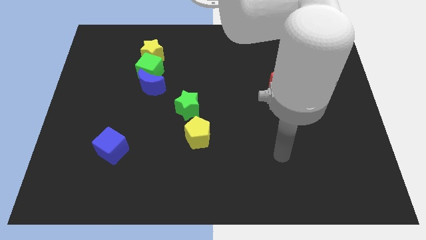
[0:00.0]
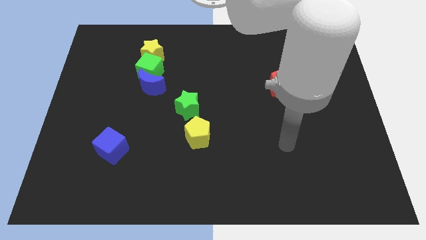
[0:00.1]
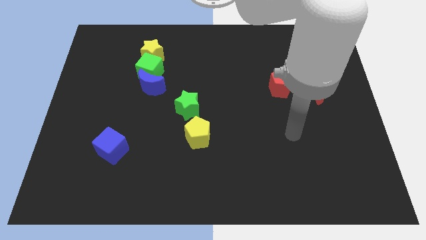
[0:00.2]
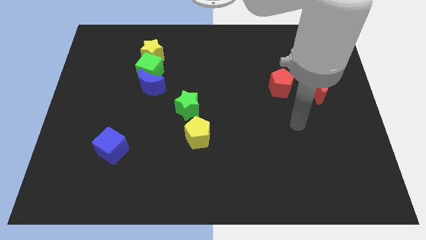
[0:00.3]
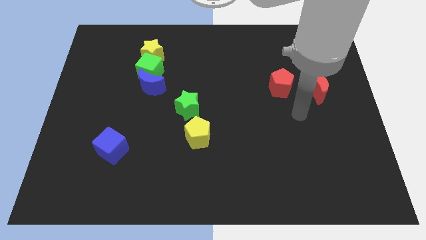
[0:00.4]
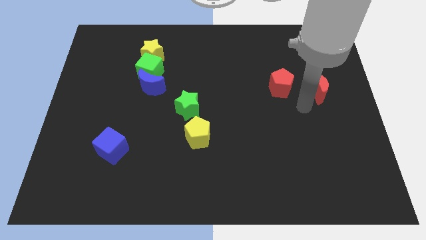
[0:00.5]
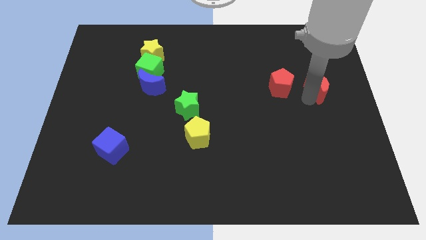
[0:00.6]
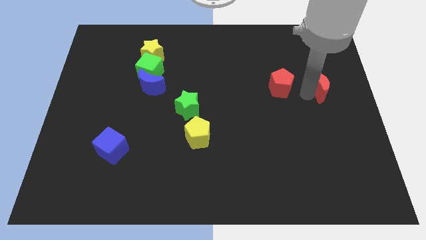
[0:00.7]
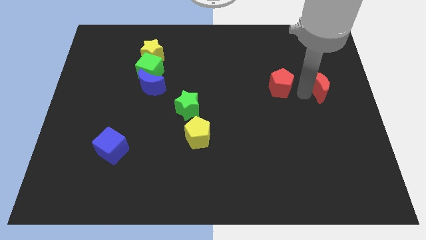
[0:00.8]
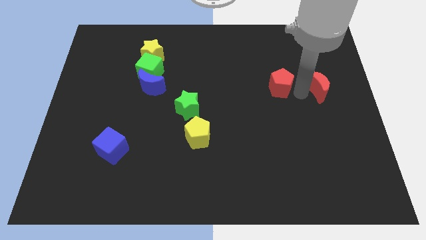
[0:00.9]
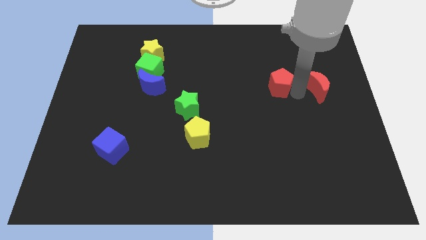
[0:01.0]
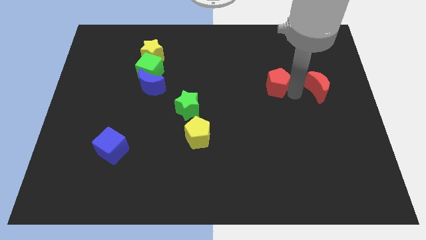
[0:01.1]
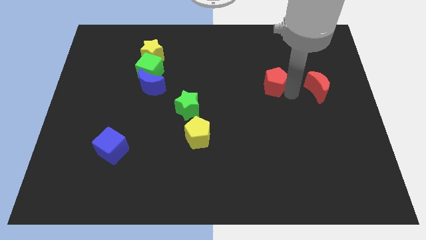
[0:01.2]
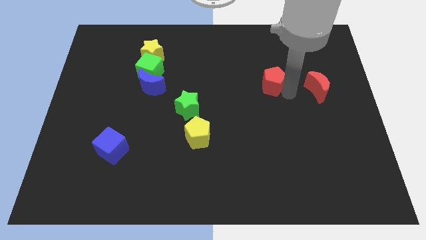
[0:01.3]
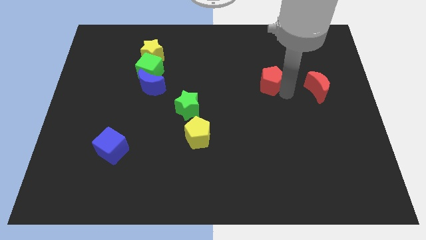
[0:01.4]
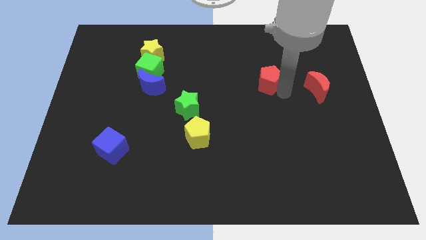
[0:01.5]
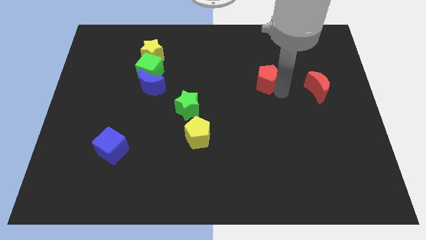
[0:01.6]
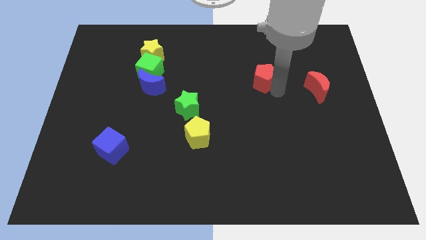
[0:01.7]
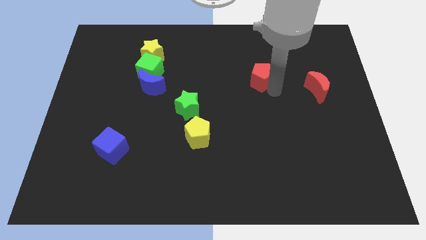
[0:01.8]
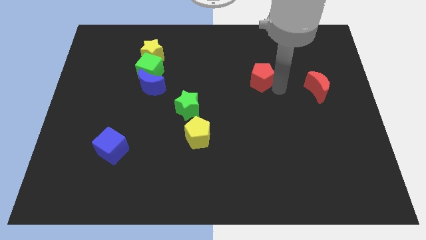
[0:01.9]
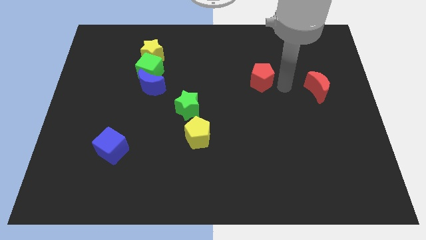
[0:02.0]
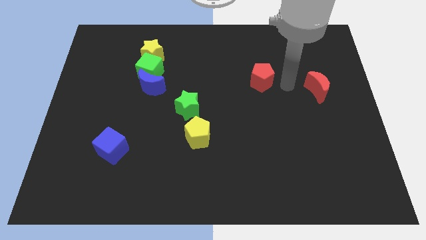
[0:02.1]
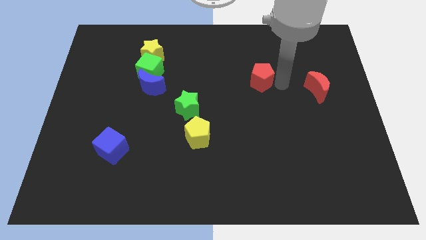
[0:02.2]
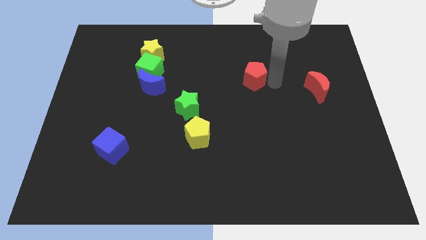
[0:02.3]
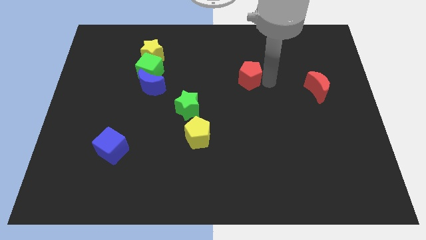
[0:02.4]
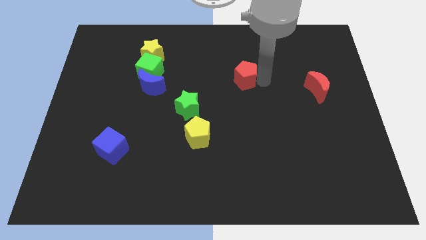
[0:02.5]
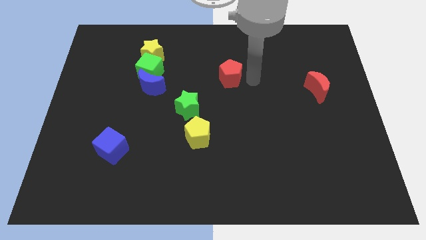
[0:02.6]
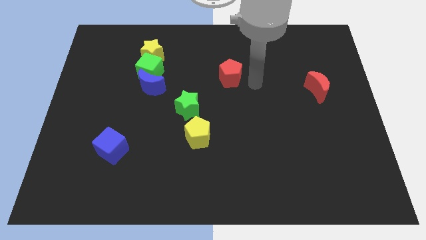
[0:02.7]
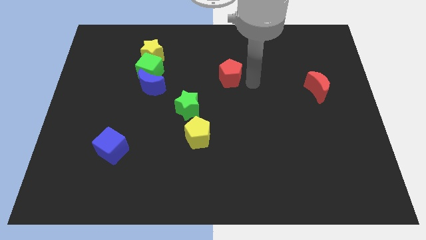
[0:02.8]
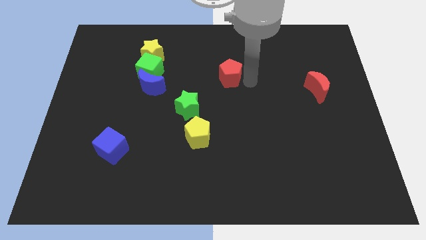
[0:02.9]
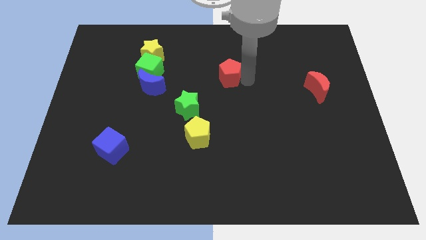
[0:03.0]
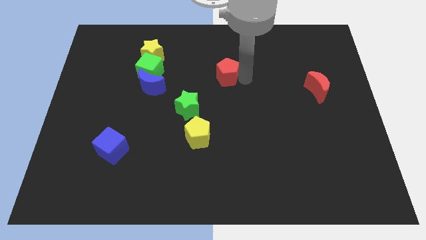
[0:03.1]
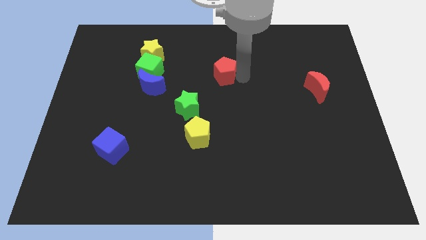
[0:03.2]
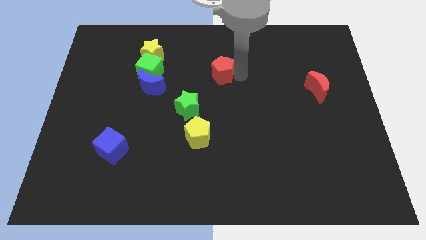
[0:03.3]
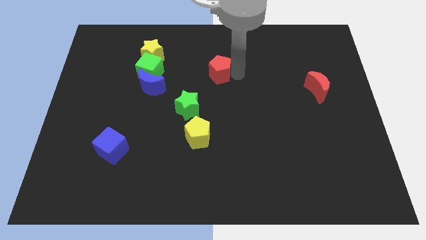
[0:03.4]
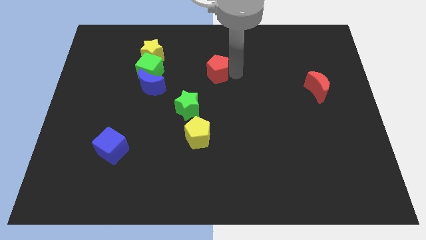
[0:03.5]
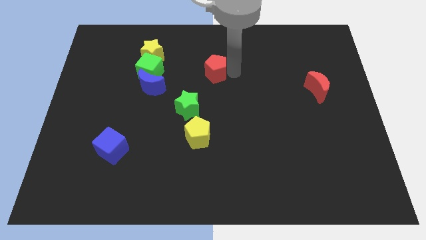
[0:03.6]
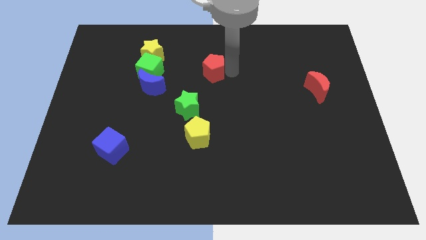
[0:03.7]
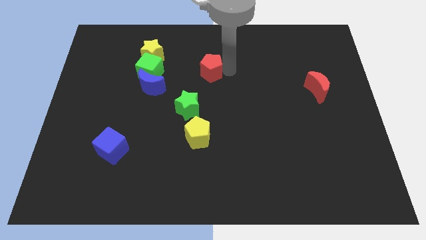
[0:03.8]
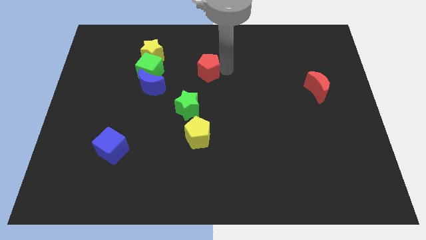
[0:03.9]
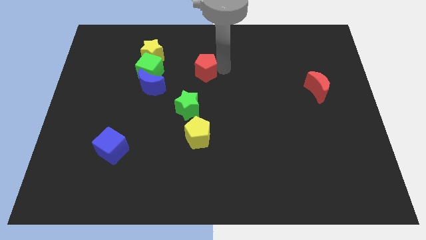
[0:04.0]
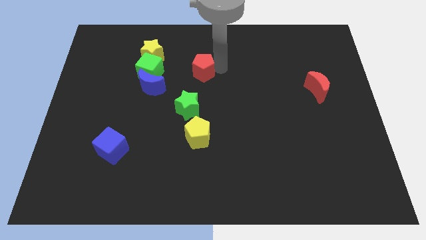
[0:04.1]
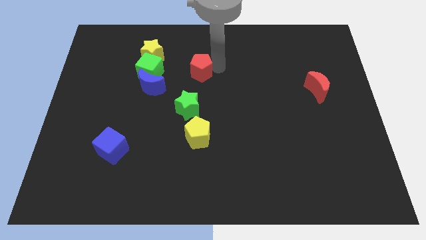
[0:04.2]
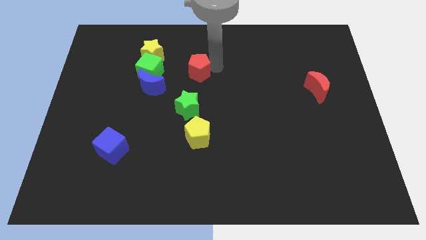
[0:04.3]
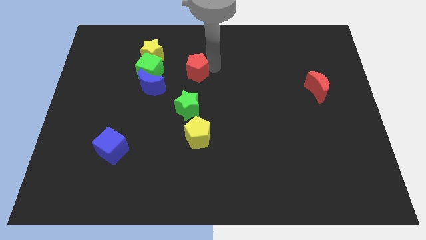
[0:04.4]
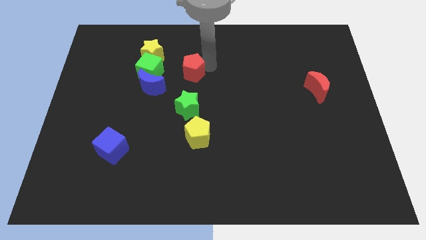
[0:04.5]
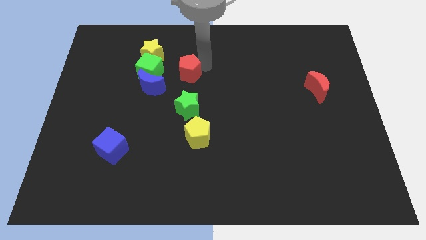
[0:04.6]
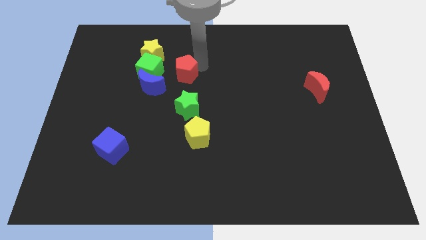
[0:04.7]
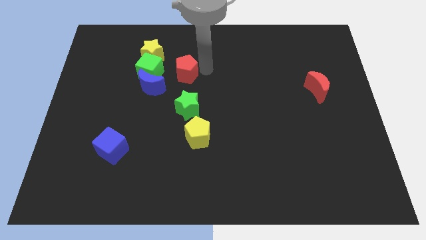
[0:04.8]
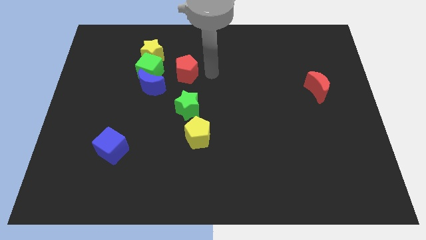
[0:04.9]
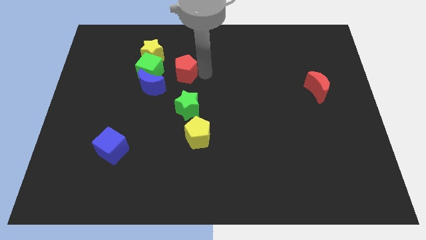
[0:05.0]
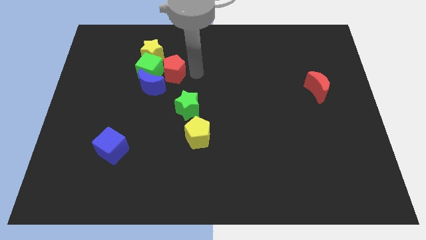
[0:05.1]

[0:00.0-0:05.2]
push the red pentagon towards the green cube

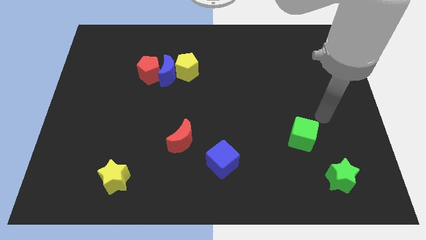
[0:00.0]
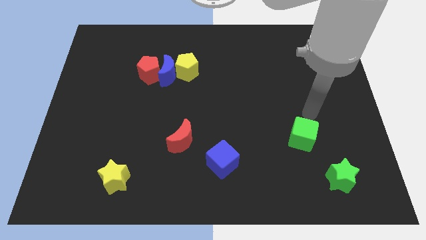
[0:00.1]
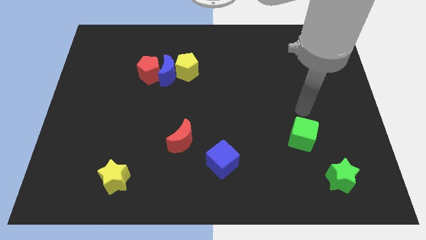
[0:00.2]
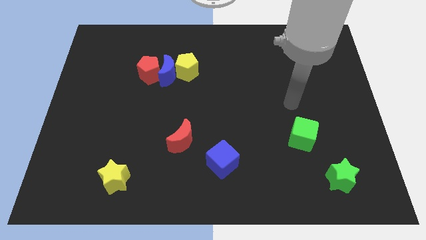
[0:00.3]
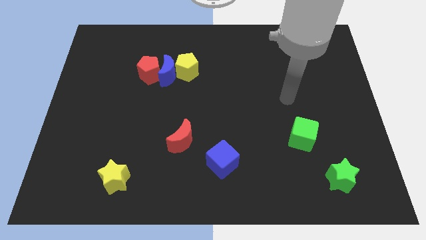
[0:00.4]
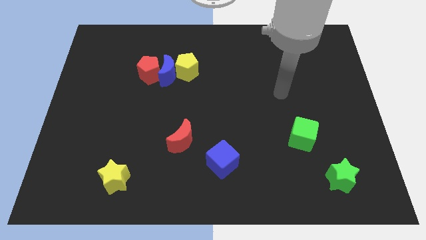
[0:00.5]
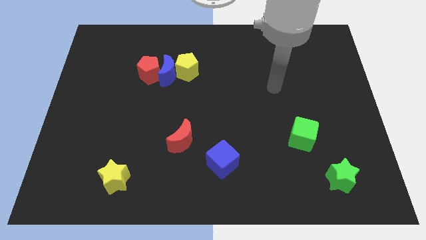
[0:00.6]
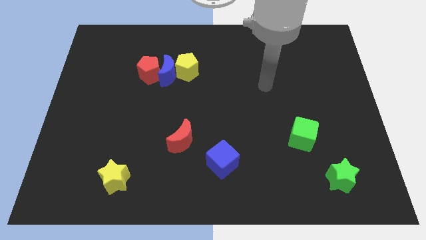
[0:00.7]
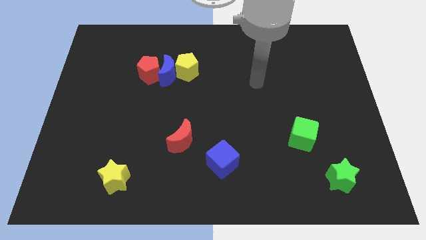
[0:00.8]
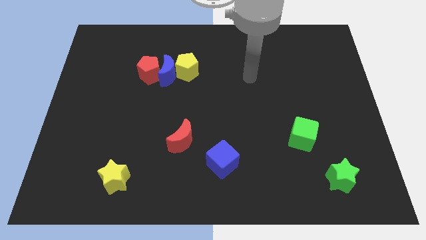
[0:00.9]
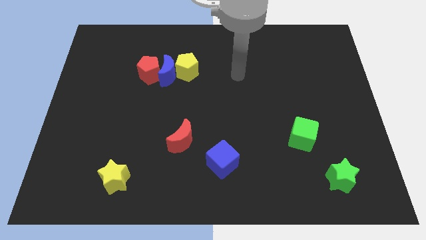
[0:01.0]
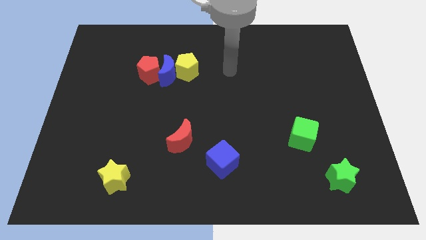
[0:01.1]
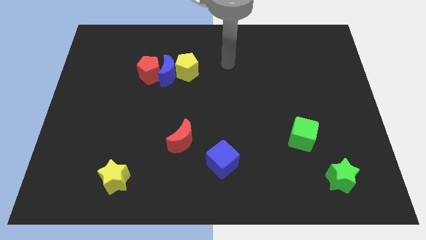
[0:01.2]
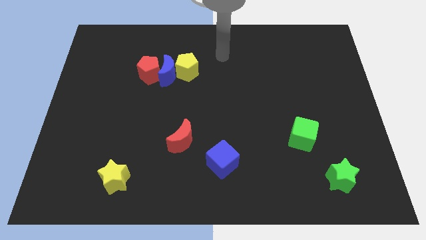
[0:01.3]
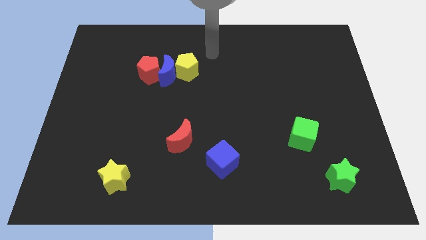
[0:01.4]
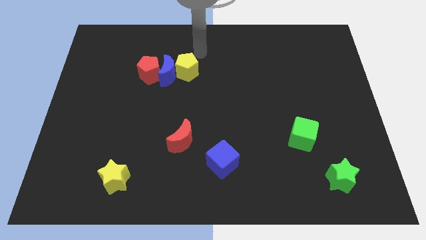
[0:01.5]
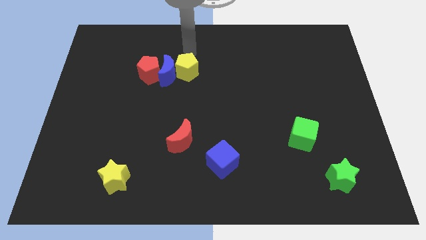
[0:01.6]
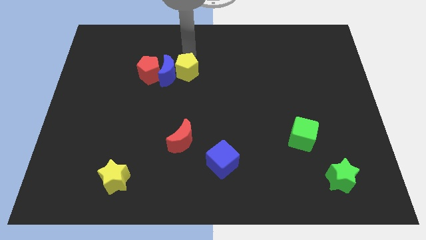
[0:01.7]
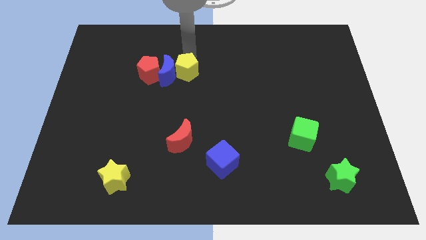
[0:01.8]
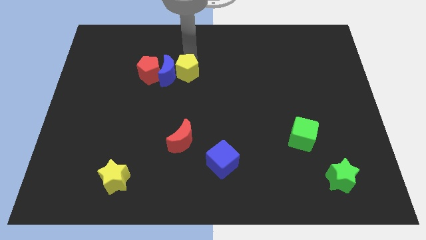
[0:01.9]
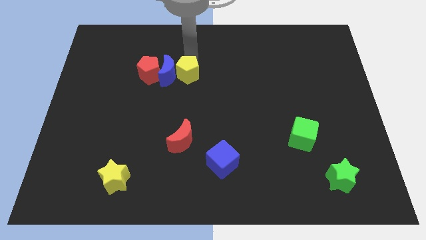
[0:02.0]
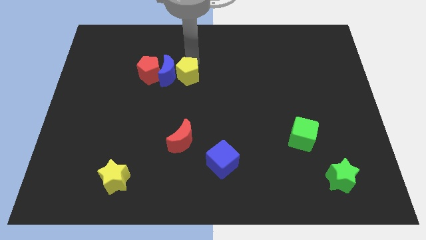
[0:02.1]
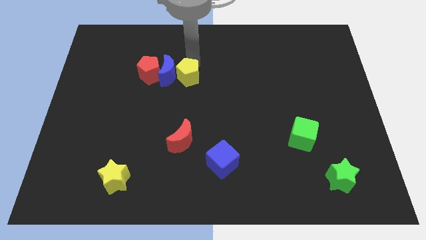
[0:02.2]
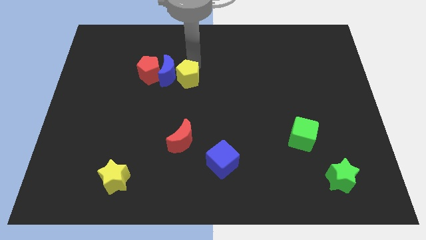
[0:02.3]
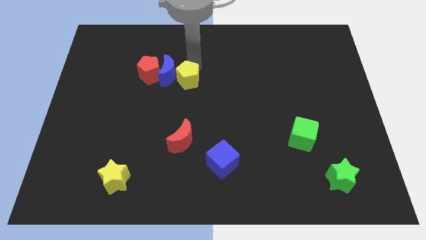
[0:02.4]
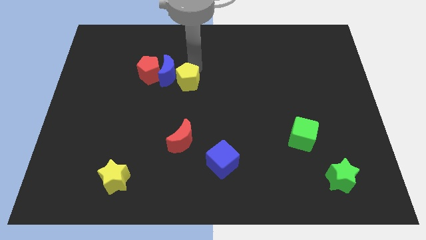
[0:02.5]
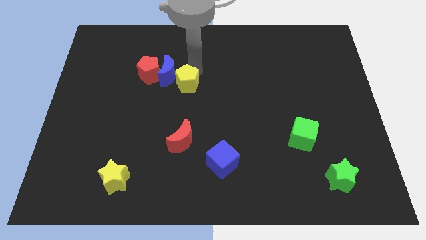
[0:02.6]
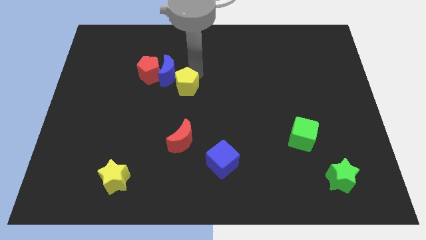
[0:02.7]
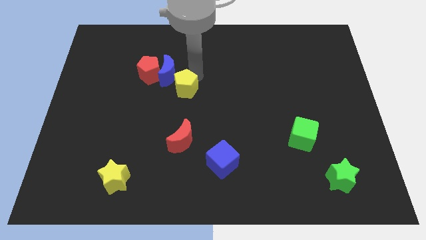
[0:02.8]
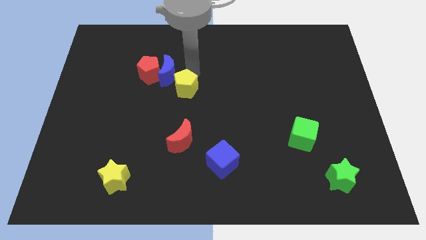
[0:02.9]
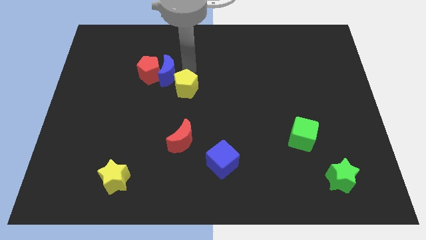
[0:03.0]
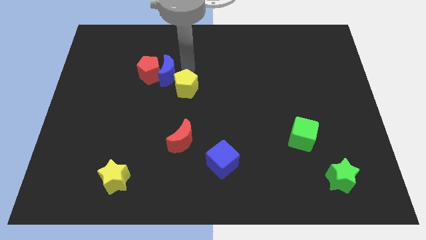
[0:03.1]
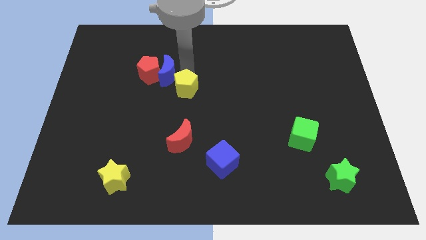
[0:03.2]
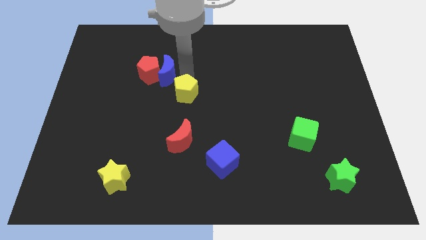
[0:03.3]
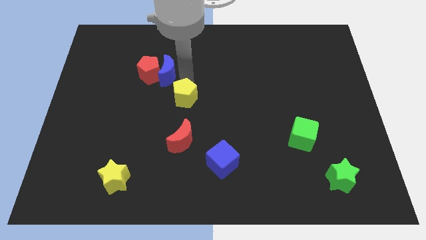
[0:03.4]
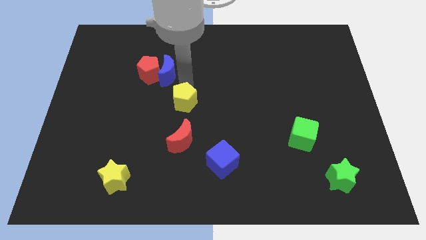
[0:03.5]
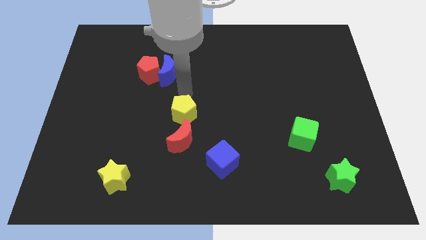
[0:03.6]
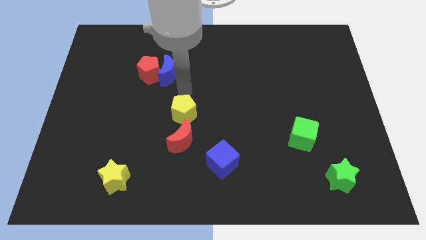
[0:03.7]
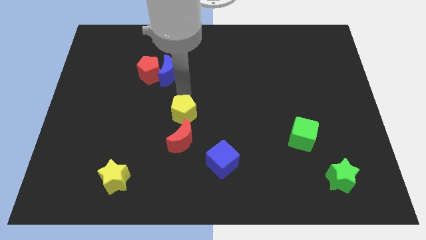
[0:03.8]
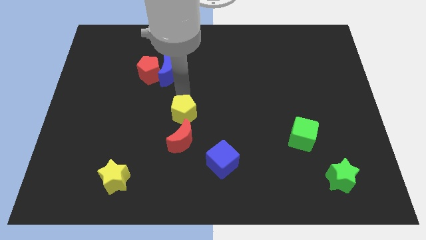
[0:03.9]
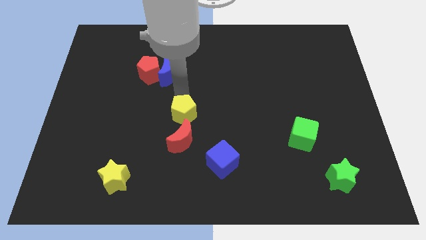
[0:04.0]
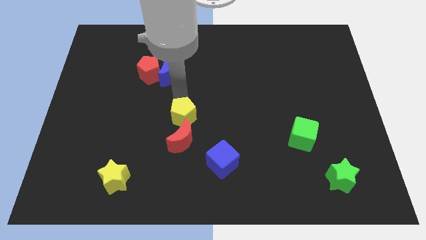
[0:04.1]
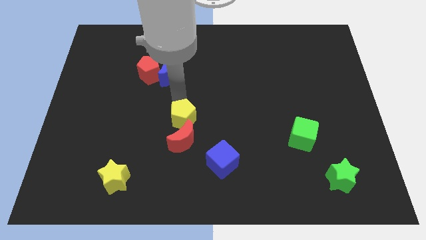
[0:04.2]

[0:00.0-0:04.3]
move the yellow pentagon to the red moon
